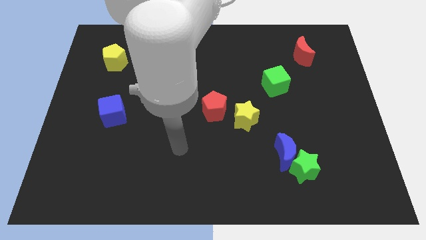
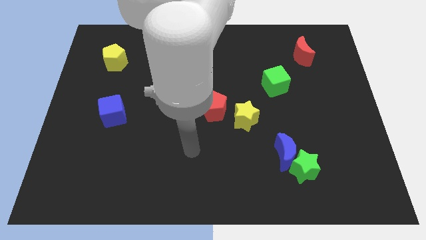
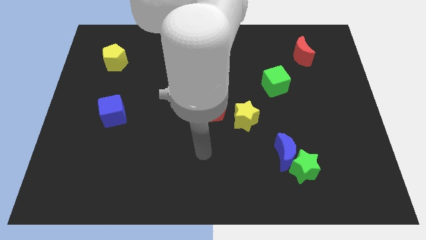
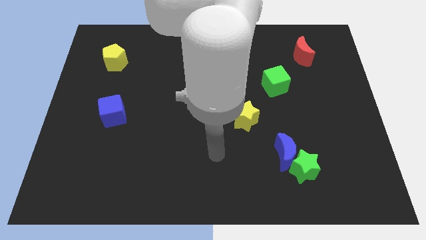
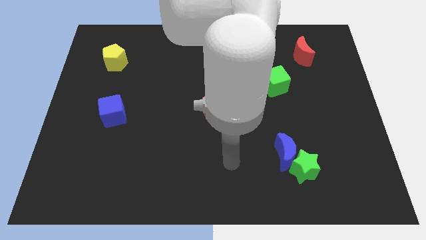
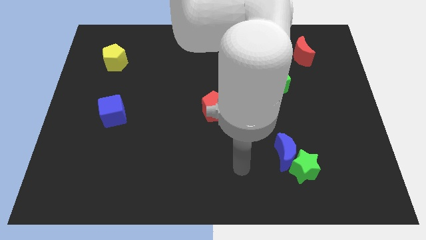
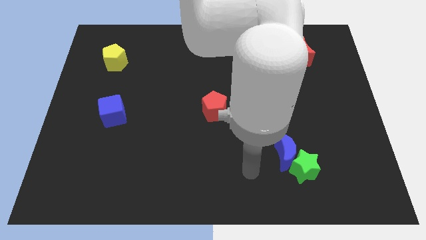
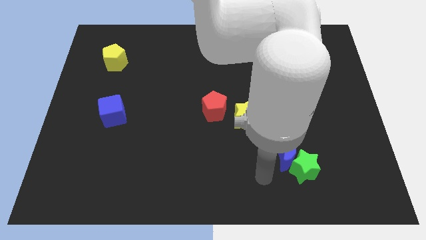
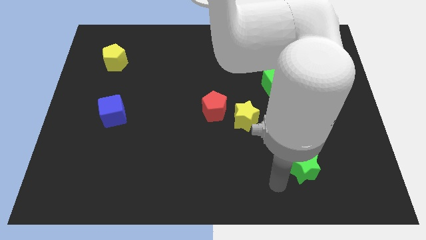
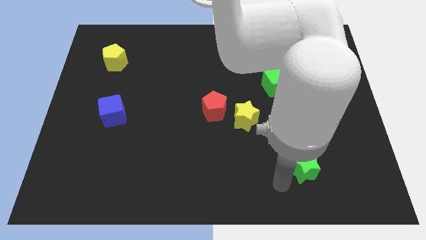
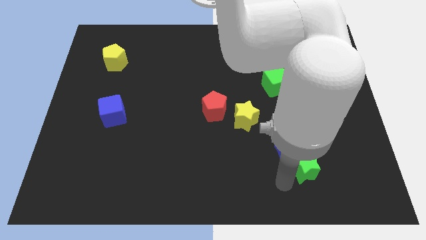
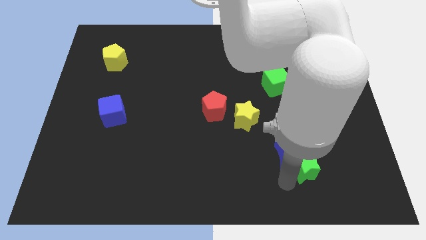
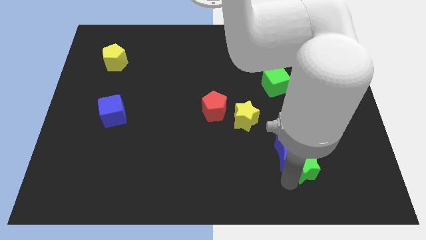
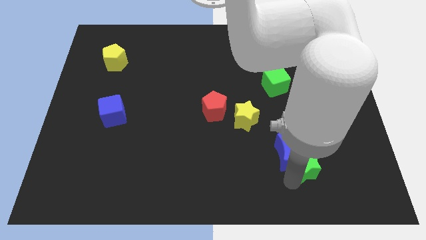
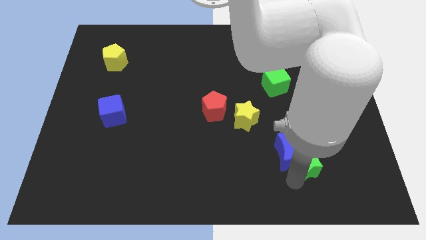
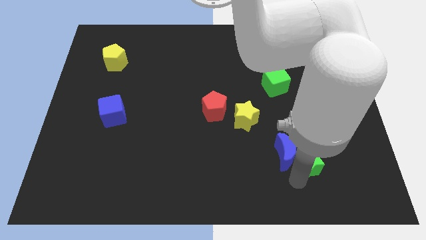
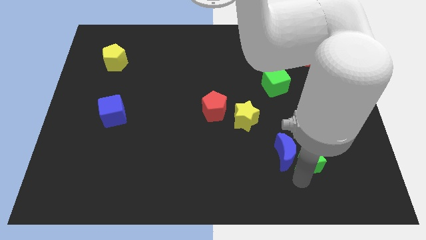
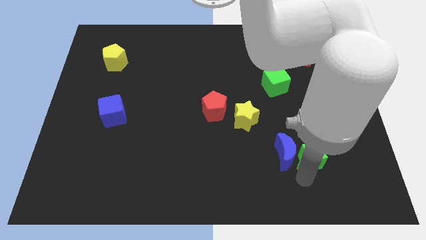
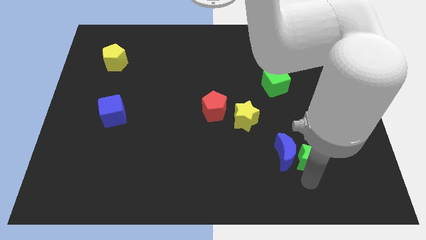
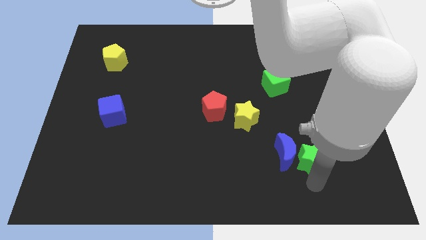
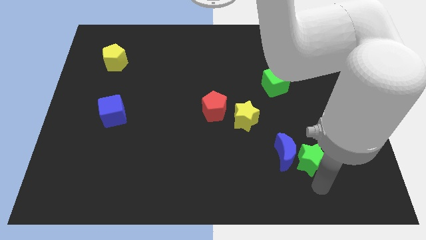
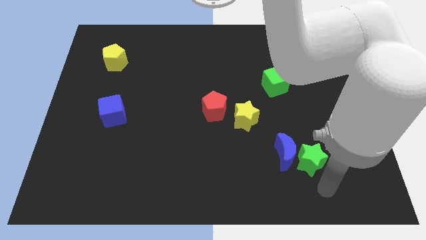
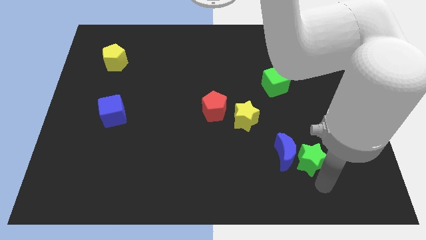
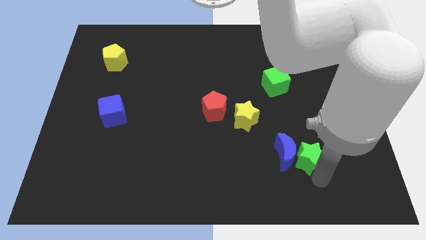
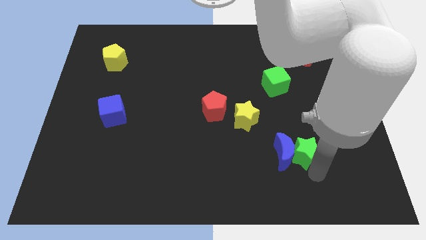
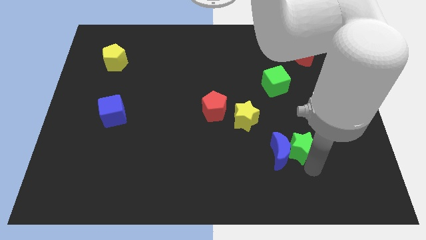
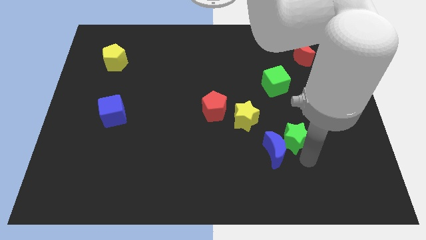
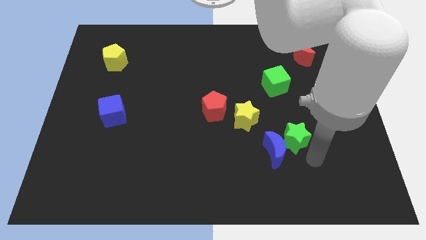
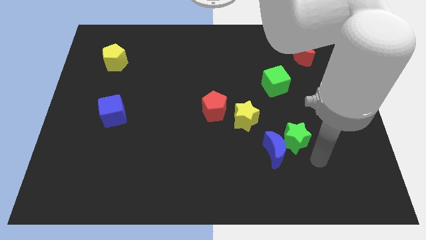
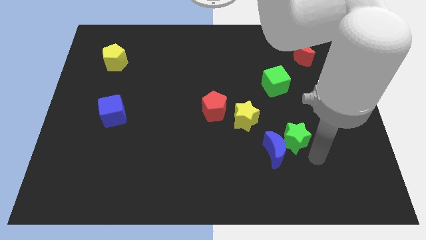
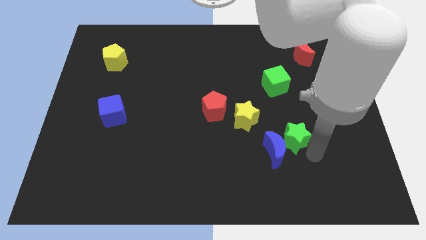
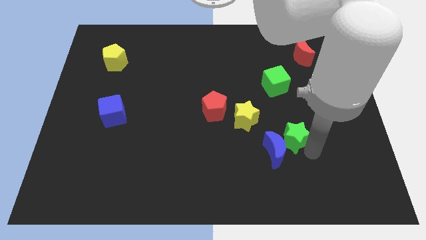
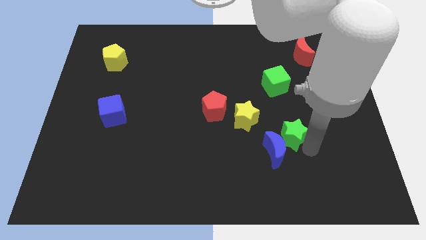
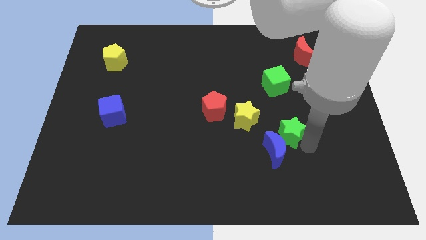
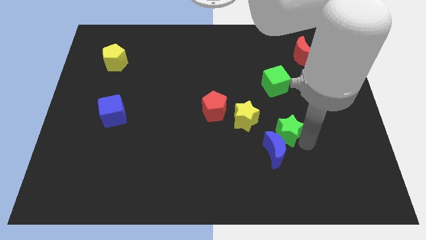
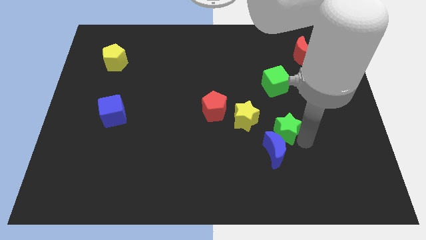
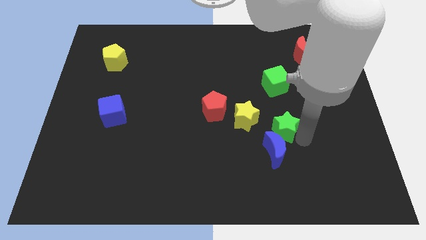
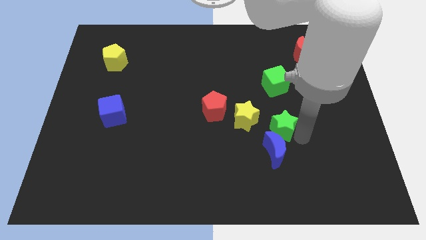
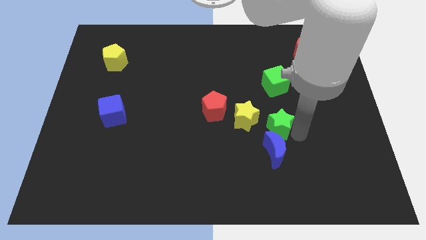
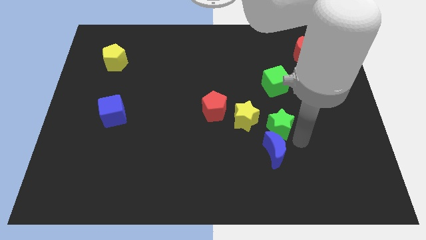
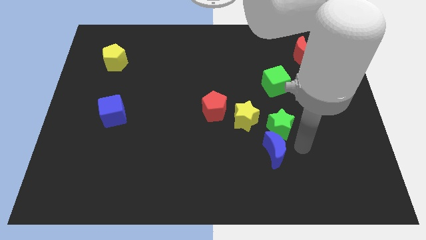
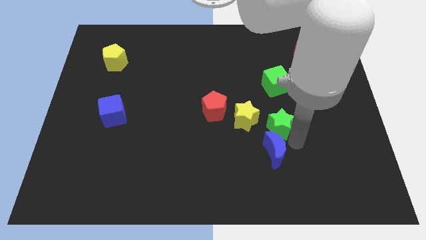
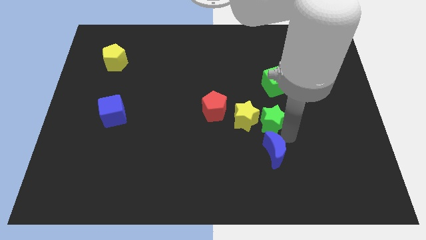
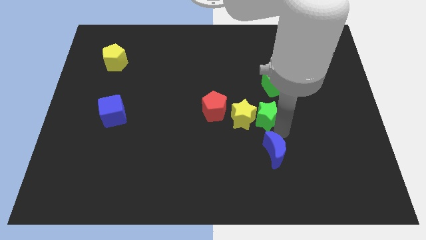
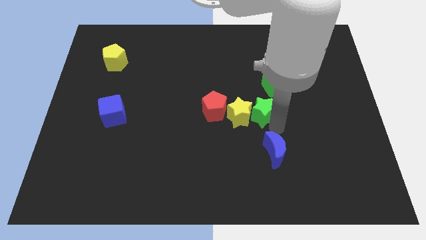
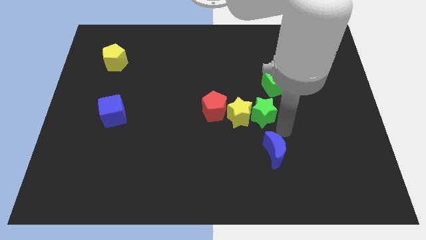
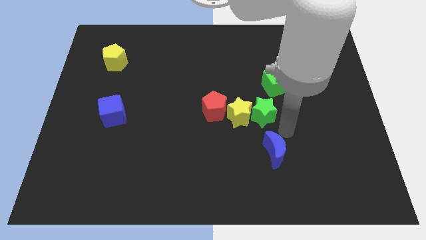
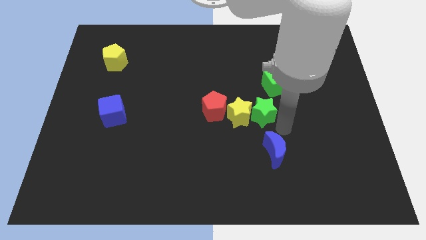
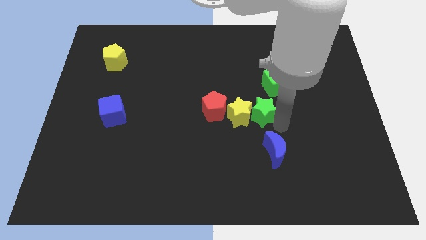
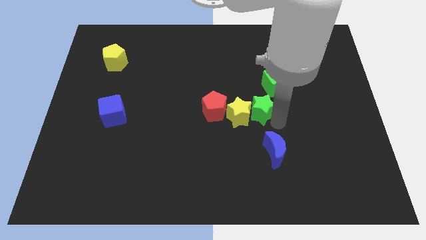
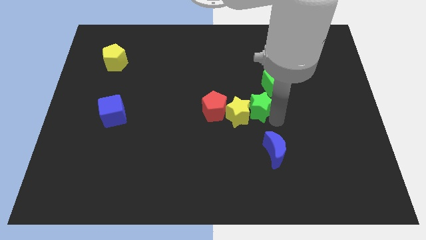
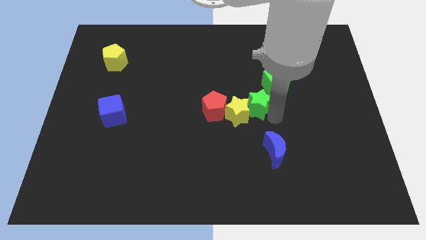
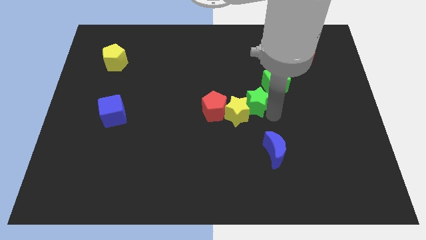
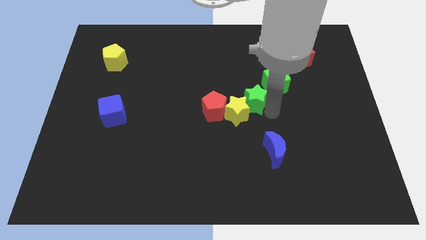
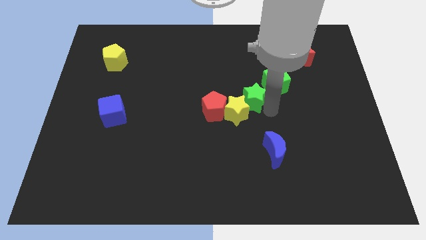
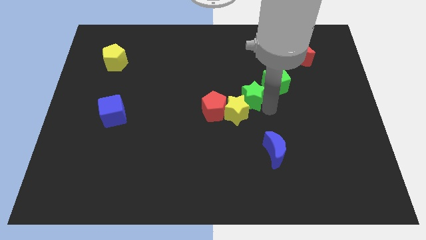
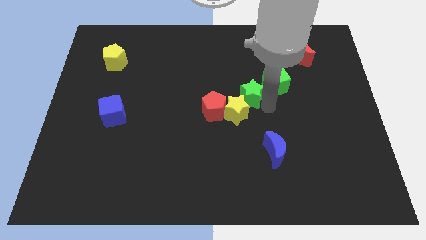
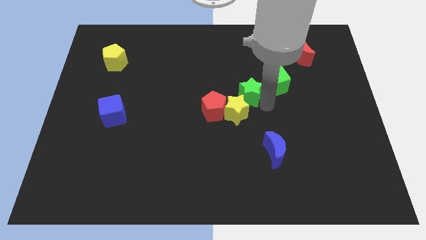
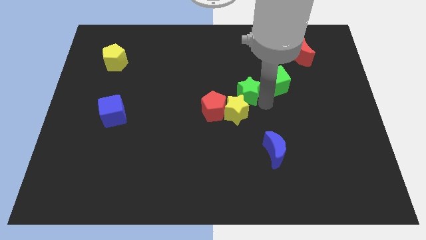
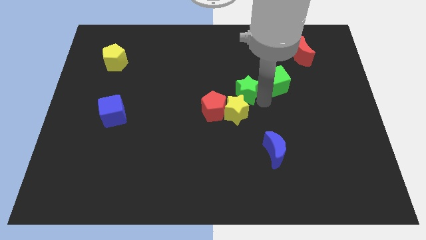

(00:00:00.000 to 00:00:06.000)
push the green star diagonally up and left

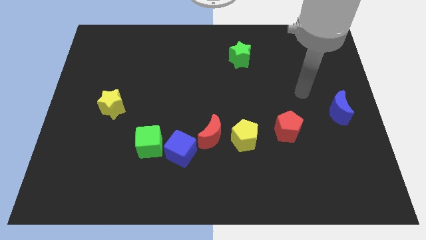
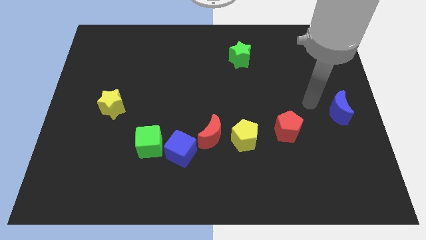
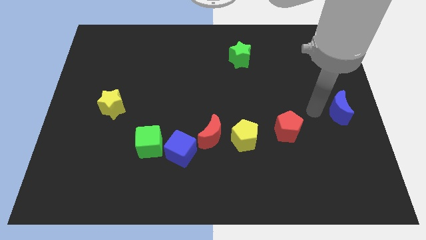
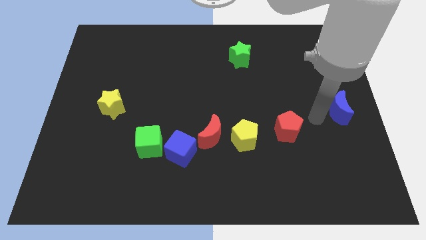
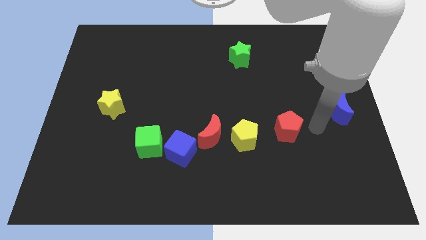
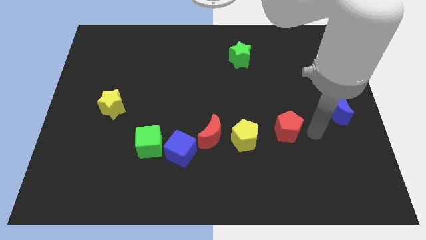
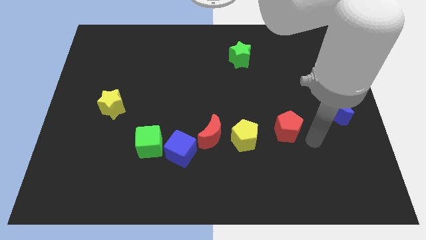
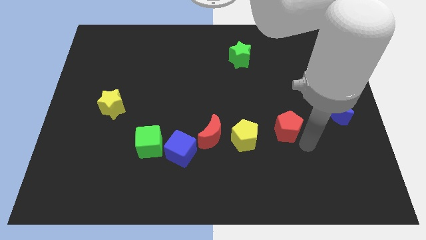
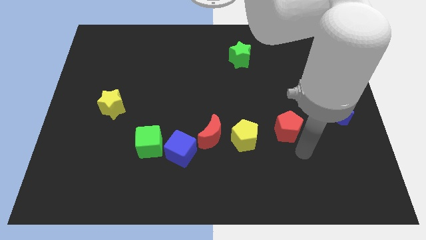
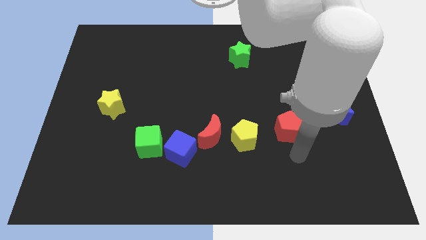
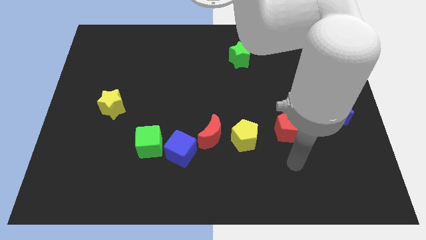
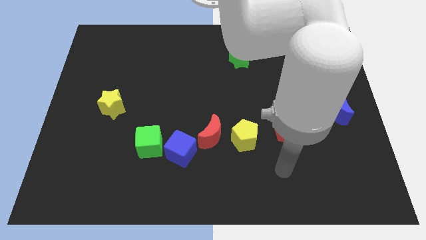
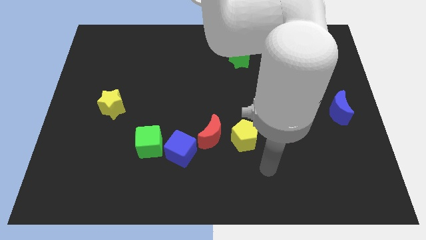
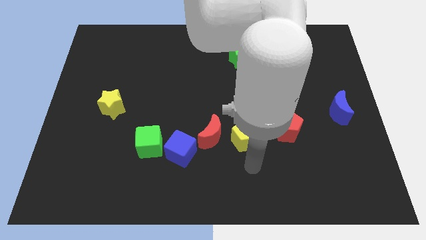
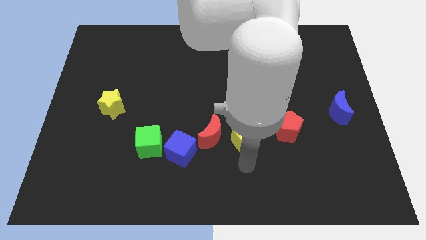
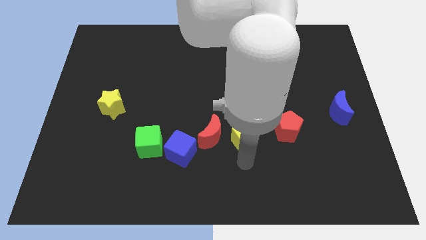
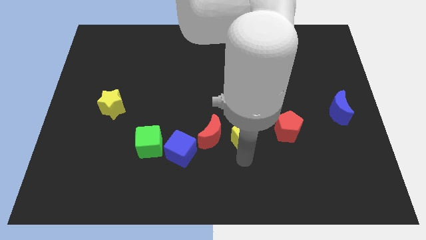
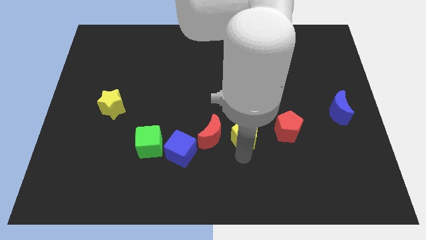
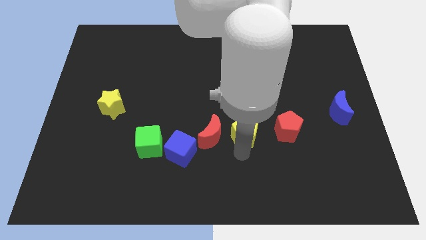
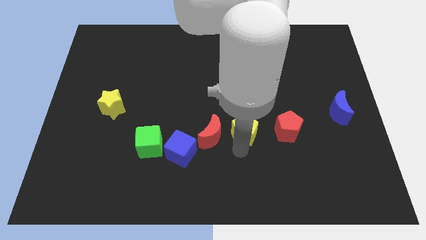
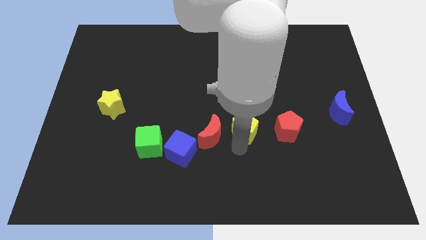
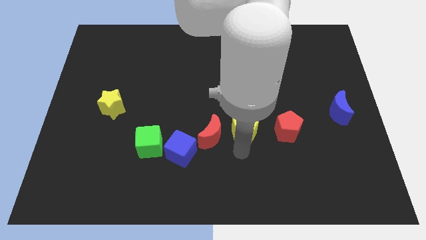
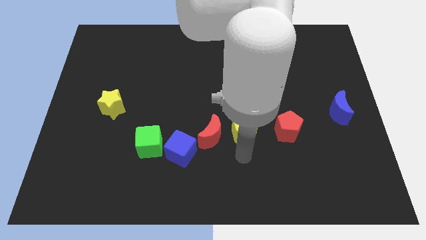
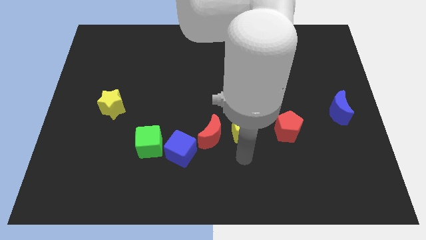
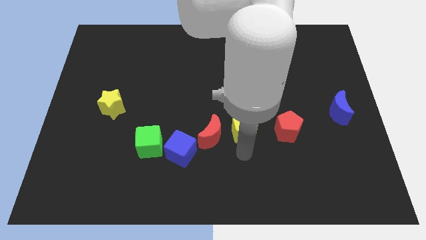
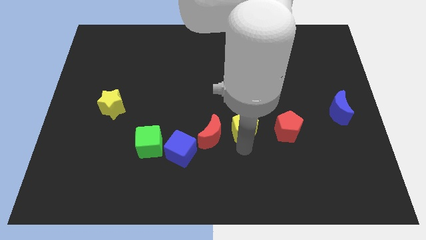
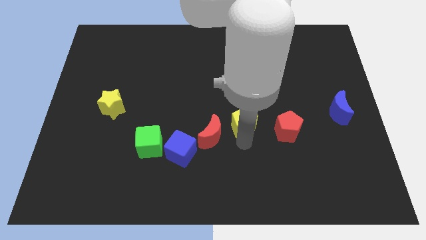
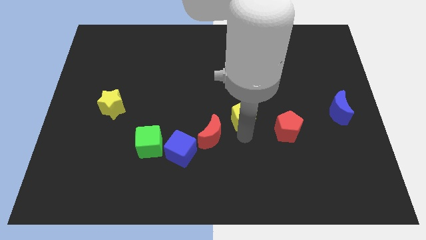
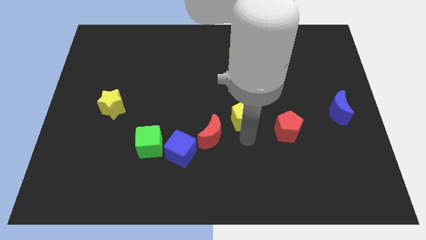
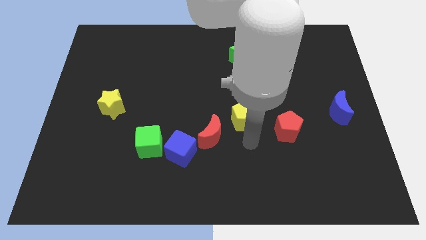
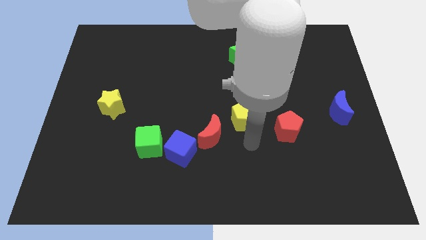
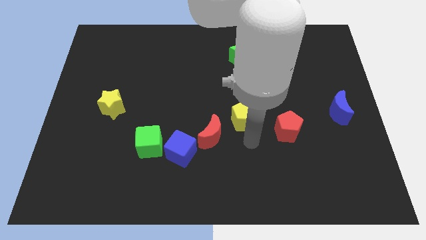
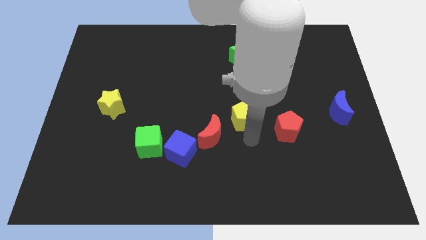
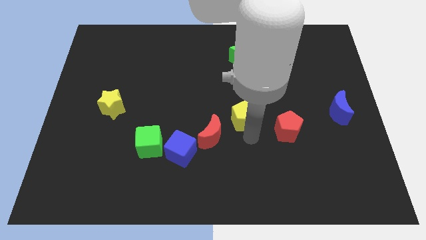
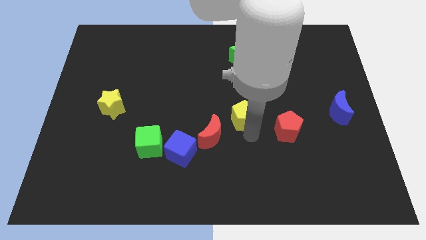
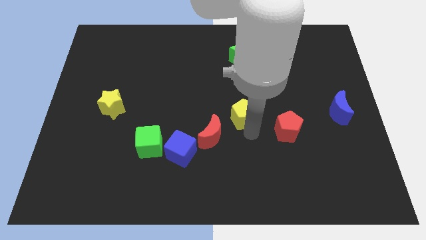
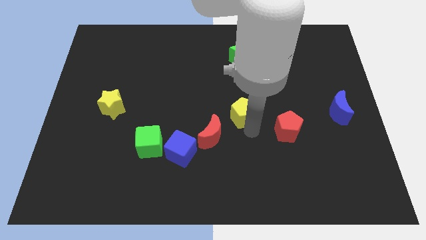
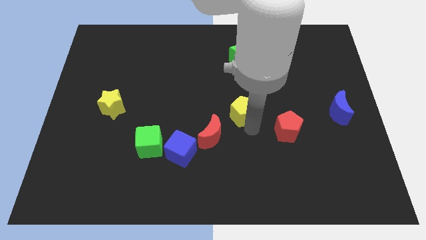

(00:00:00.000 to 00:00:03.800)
slide the yellow pentagon a bit up
